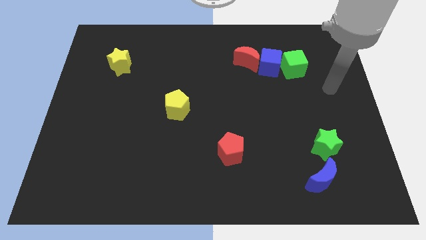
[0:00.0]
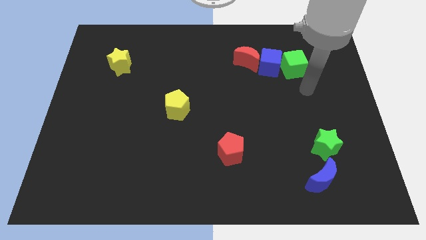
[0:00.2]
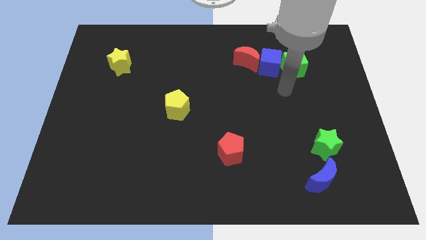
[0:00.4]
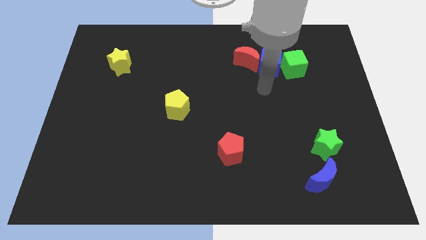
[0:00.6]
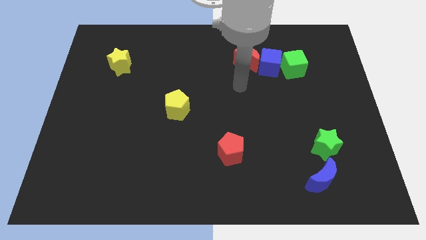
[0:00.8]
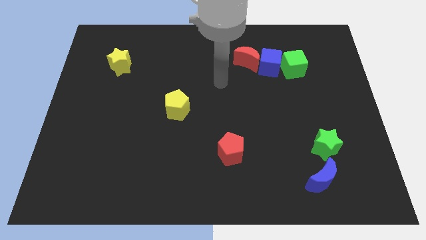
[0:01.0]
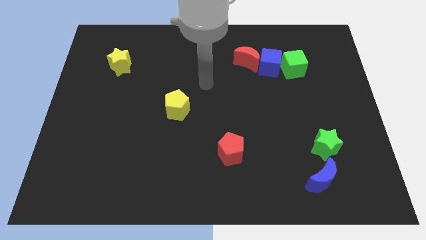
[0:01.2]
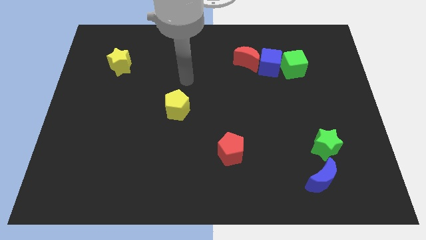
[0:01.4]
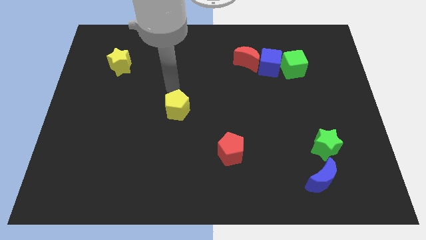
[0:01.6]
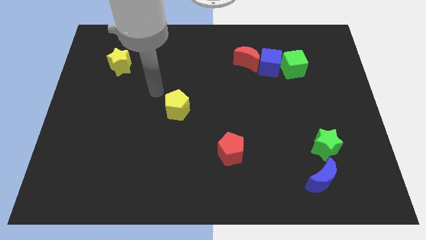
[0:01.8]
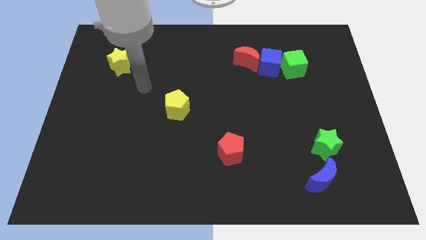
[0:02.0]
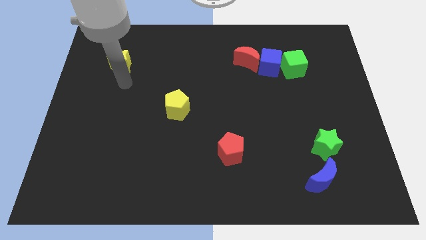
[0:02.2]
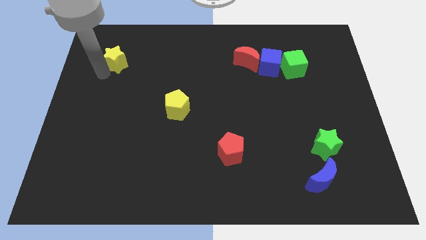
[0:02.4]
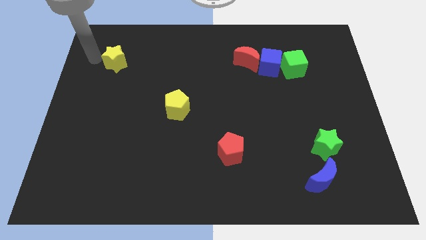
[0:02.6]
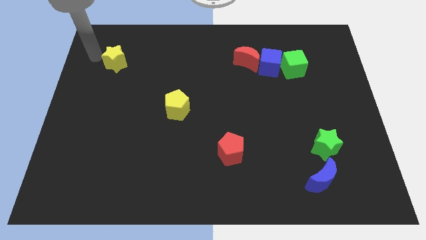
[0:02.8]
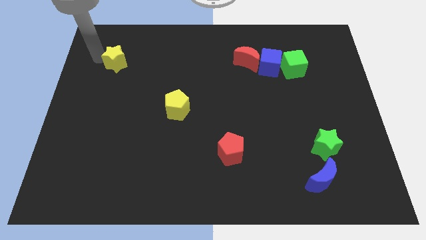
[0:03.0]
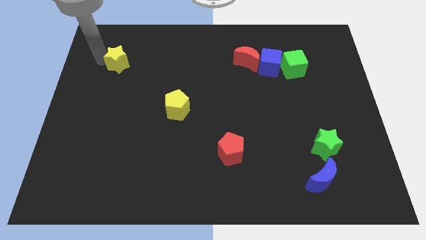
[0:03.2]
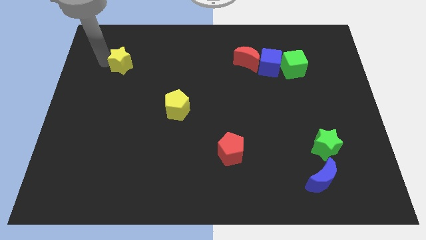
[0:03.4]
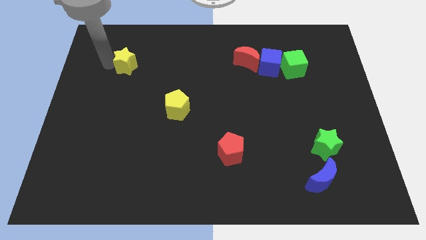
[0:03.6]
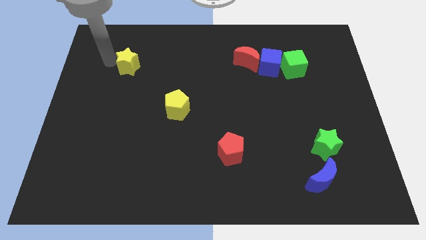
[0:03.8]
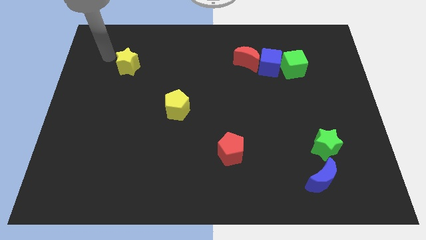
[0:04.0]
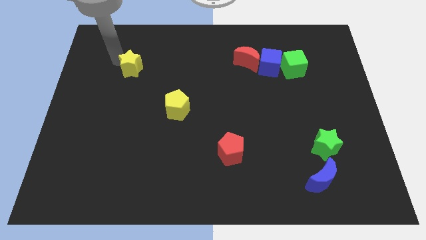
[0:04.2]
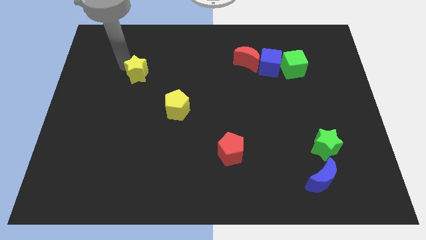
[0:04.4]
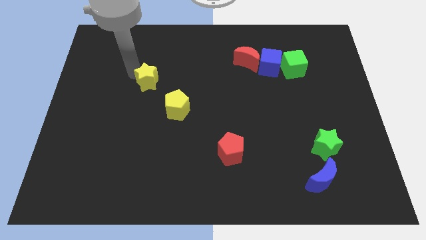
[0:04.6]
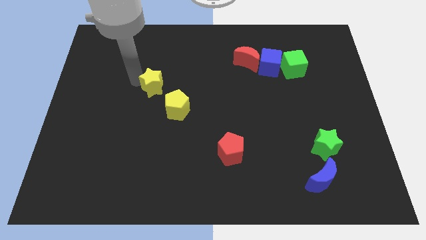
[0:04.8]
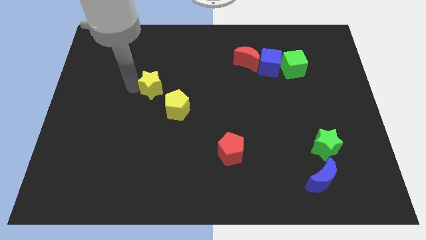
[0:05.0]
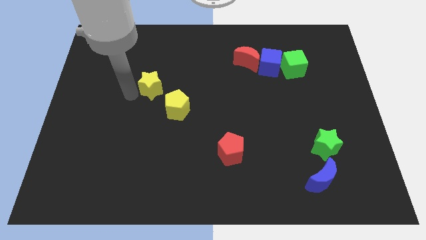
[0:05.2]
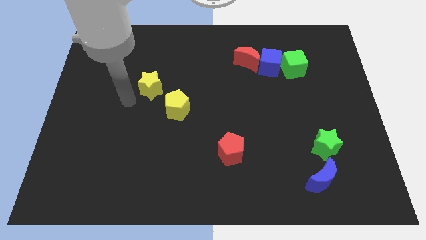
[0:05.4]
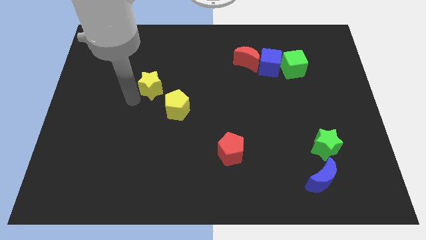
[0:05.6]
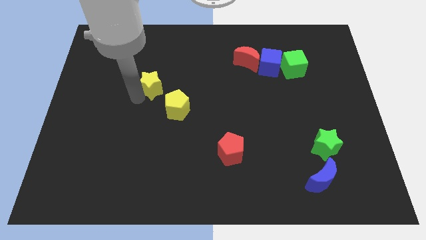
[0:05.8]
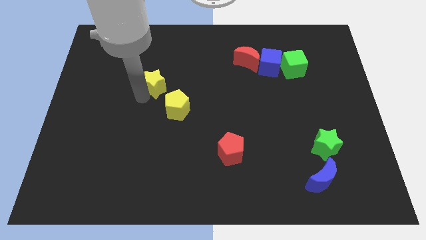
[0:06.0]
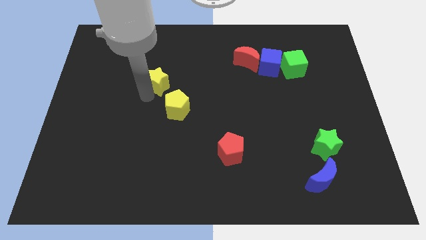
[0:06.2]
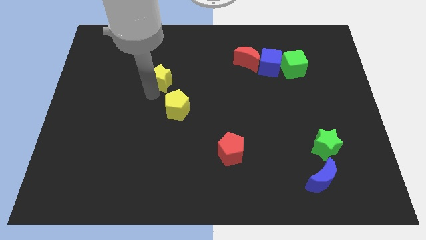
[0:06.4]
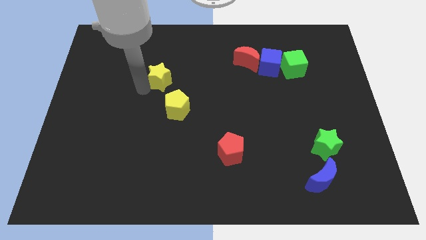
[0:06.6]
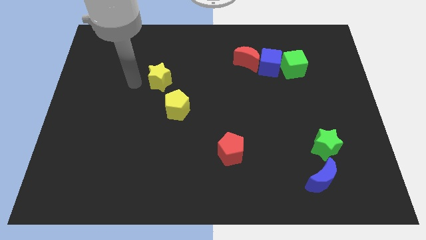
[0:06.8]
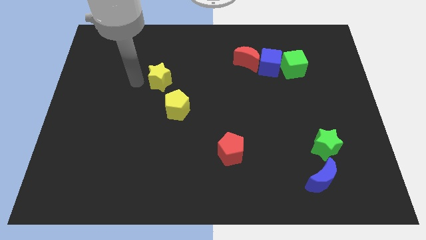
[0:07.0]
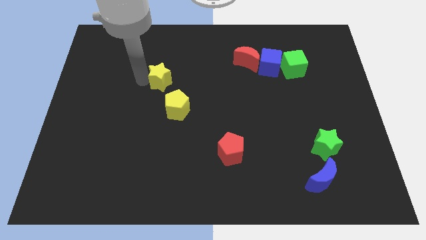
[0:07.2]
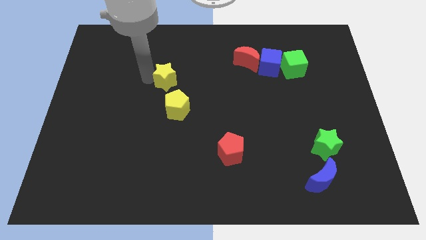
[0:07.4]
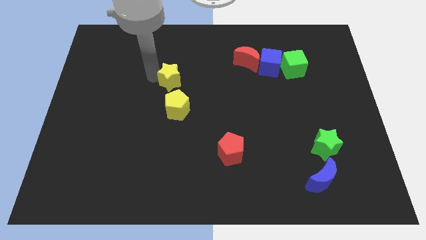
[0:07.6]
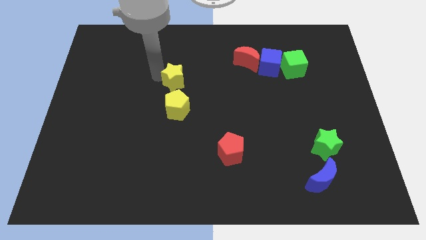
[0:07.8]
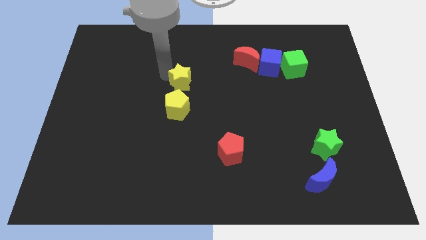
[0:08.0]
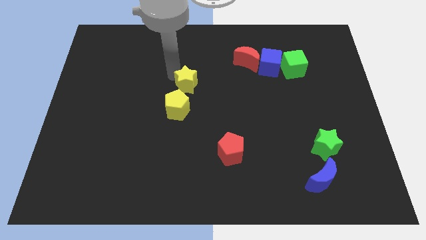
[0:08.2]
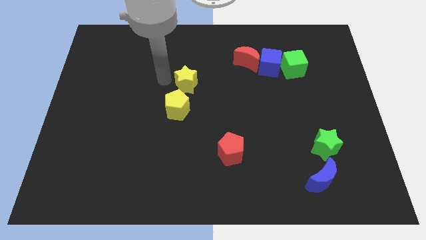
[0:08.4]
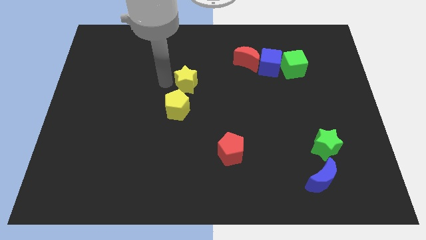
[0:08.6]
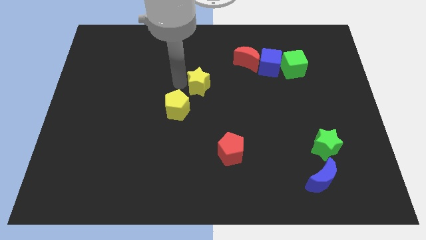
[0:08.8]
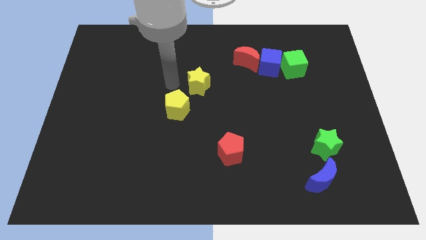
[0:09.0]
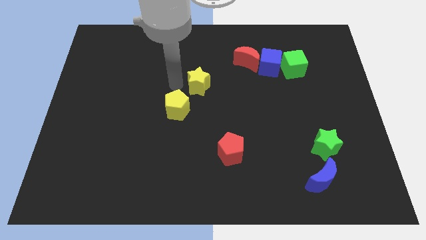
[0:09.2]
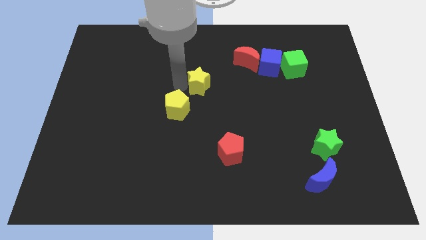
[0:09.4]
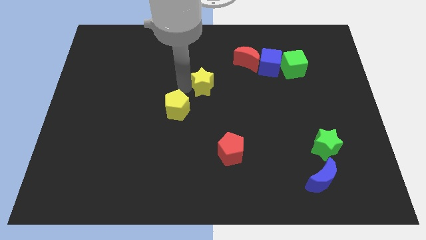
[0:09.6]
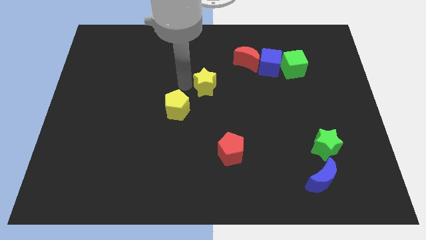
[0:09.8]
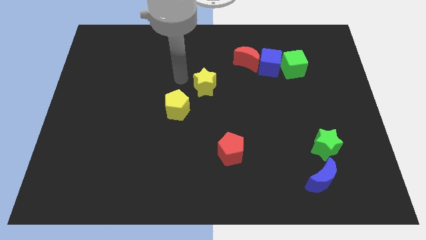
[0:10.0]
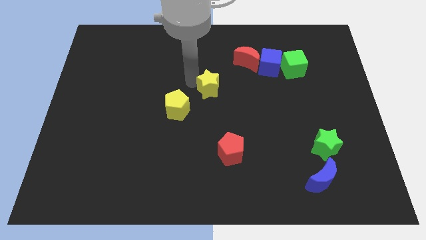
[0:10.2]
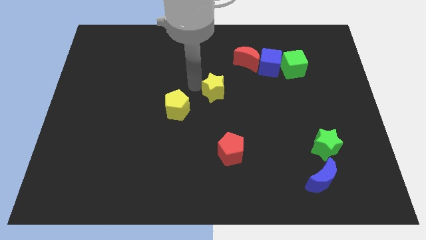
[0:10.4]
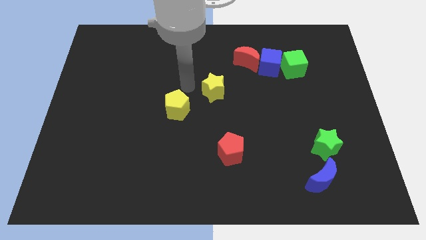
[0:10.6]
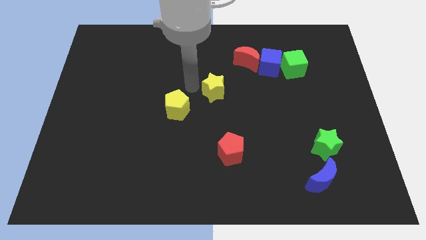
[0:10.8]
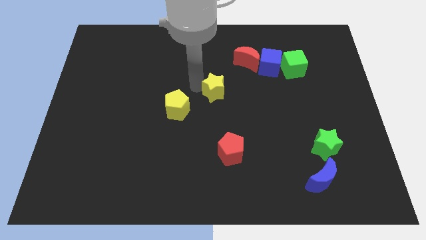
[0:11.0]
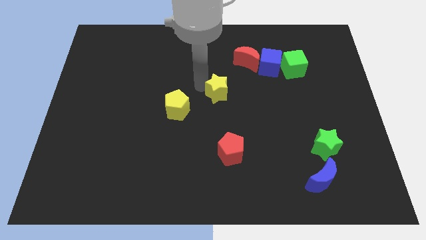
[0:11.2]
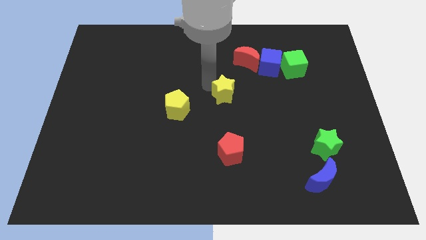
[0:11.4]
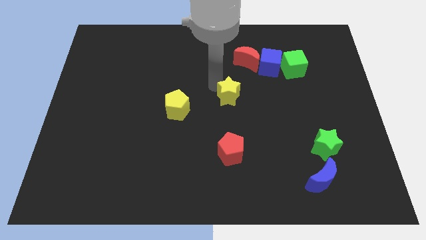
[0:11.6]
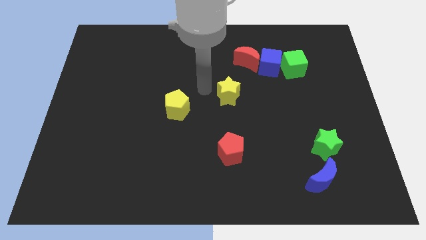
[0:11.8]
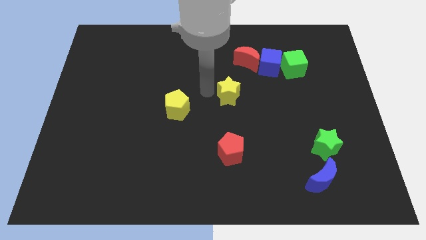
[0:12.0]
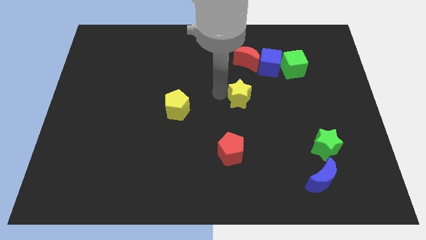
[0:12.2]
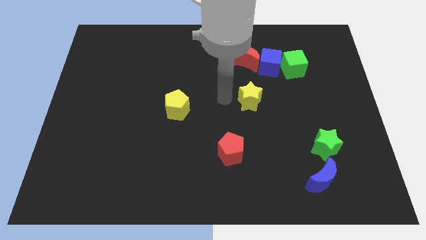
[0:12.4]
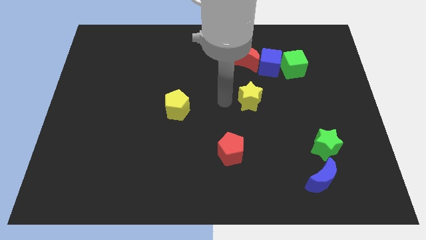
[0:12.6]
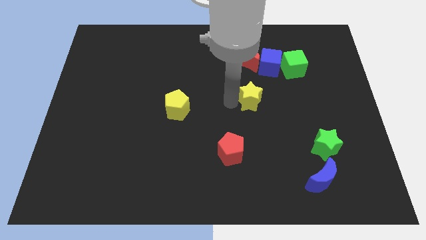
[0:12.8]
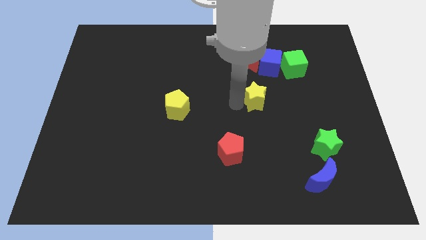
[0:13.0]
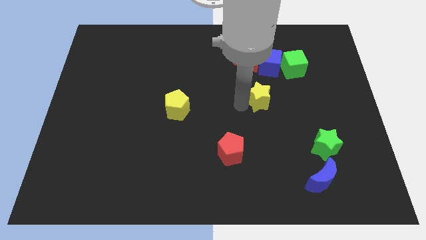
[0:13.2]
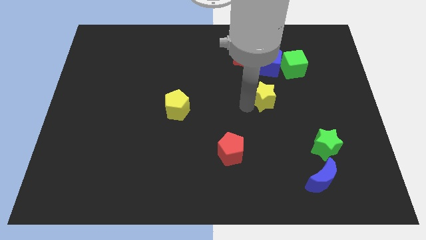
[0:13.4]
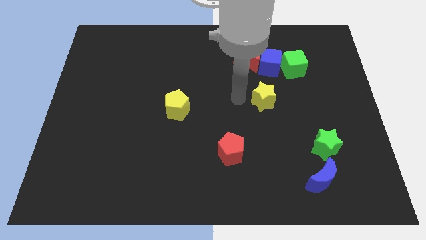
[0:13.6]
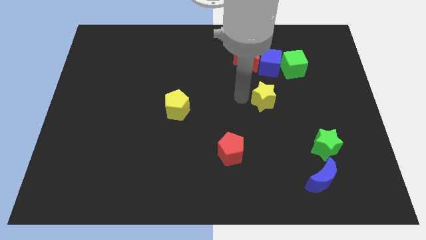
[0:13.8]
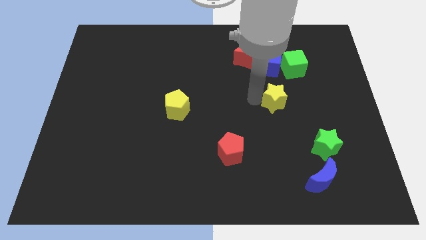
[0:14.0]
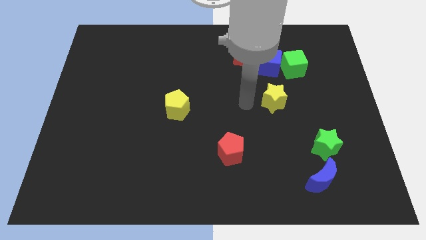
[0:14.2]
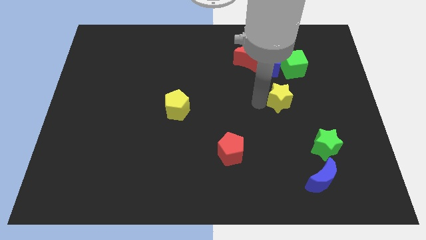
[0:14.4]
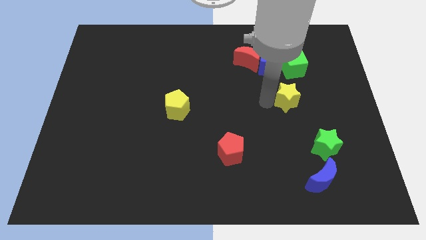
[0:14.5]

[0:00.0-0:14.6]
slide the yellow star to the bottom side of the green cube
